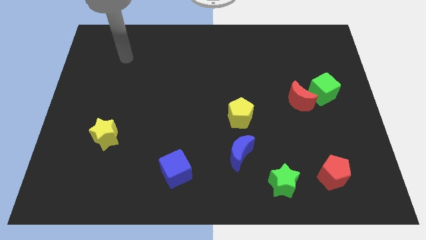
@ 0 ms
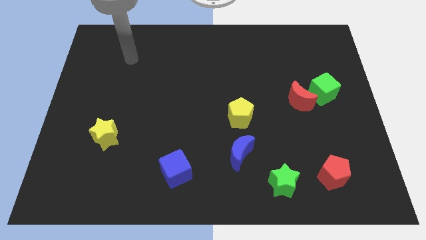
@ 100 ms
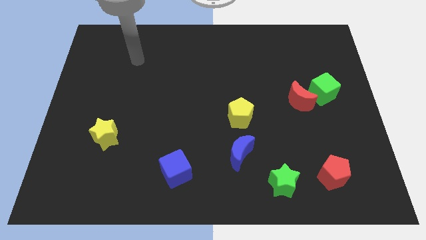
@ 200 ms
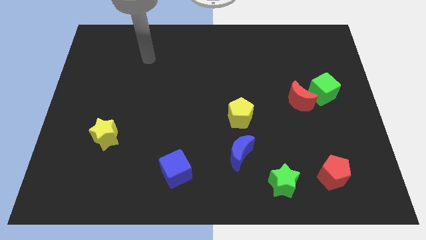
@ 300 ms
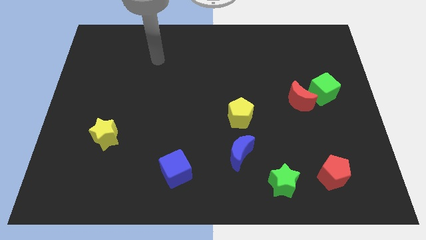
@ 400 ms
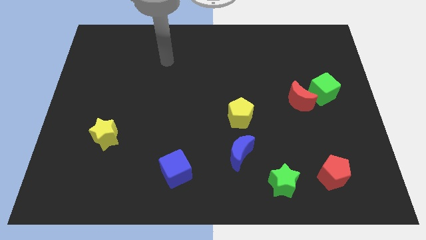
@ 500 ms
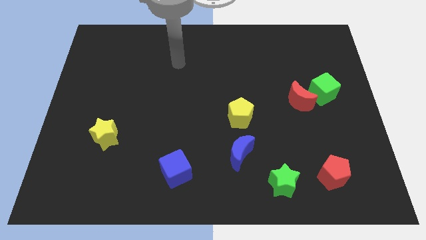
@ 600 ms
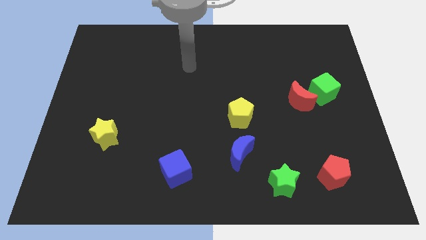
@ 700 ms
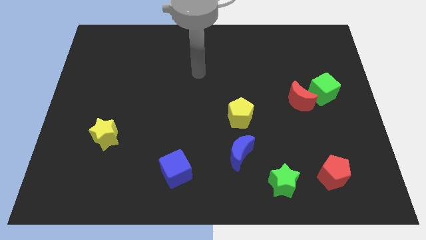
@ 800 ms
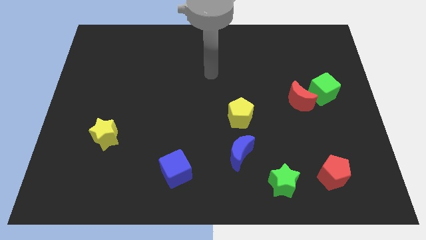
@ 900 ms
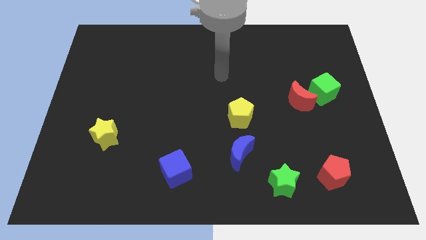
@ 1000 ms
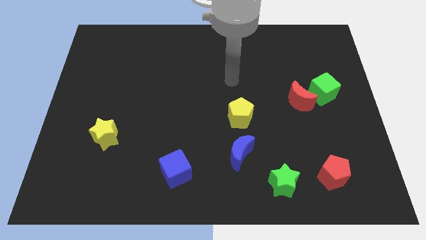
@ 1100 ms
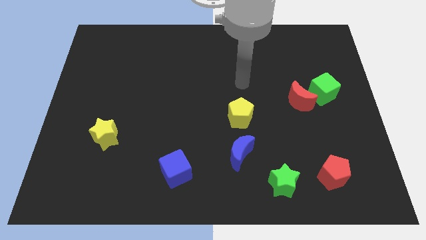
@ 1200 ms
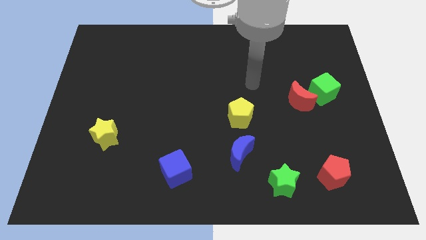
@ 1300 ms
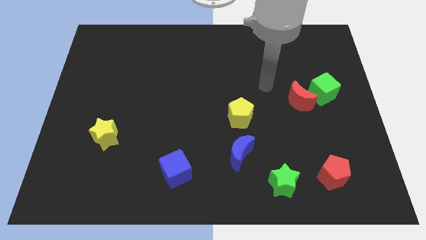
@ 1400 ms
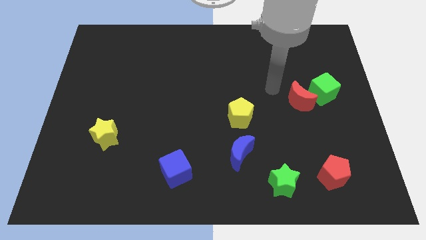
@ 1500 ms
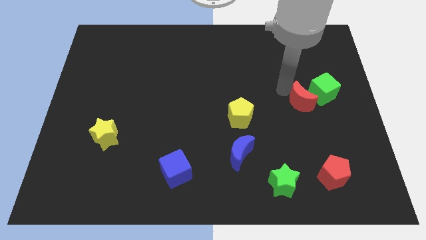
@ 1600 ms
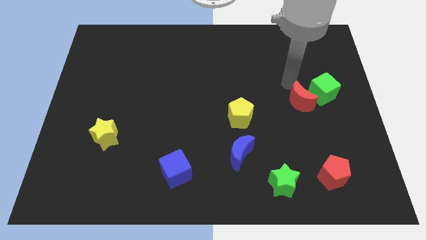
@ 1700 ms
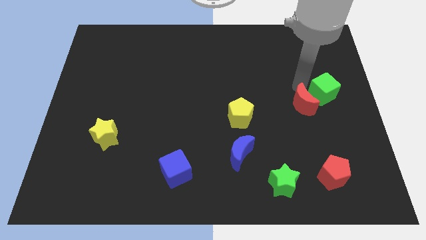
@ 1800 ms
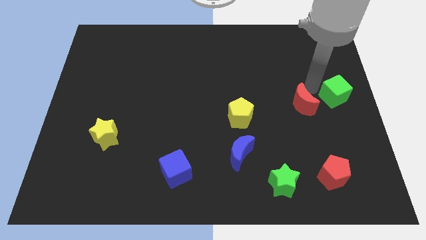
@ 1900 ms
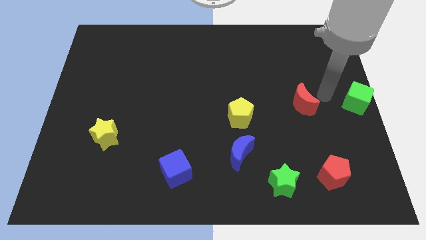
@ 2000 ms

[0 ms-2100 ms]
move the red moon away from the green cube

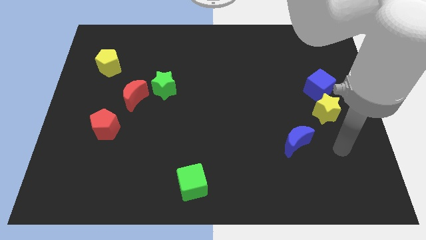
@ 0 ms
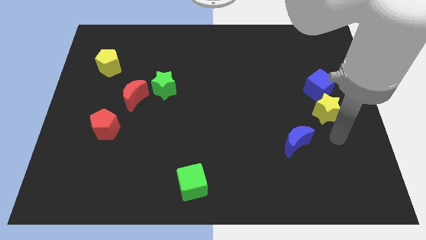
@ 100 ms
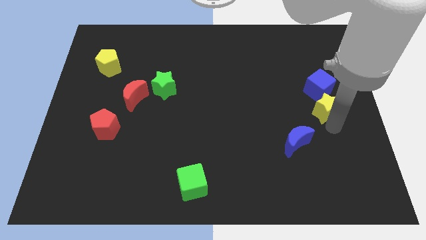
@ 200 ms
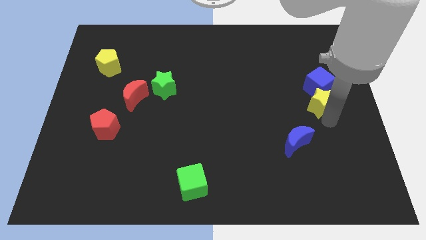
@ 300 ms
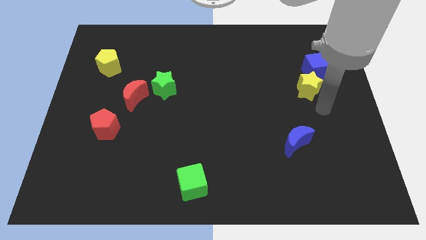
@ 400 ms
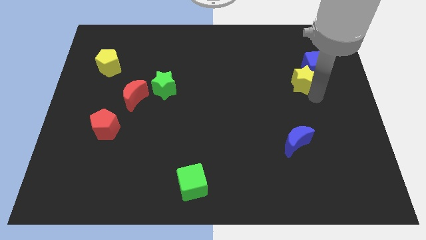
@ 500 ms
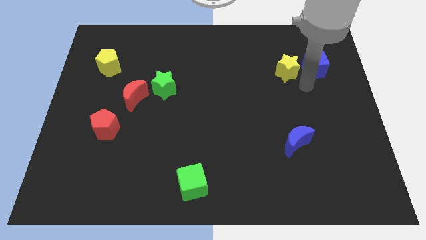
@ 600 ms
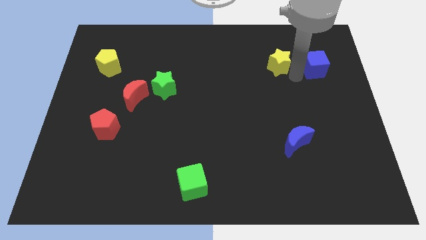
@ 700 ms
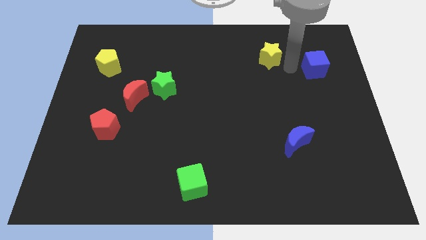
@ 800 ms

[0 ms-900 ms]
pull the blue cube apart from the yellow star

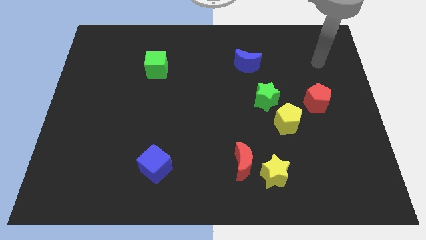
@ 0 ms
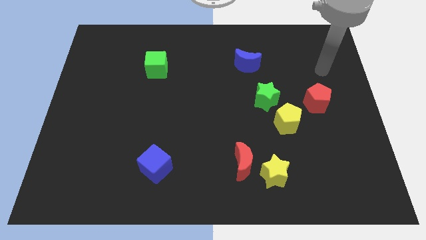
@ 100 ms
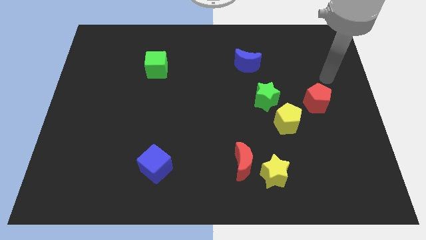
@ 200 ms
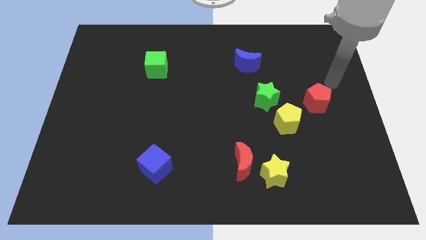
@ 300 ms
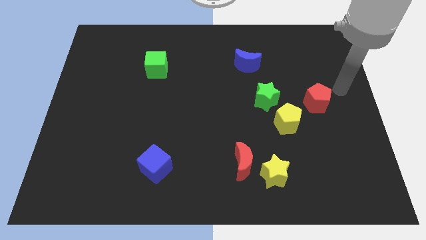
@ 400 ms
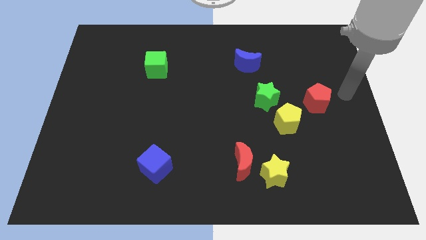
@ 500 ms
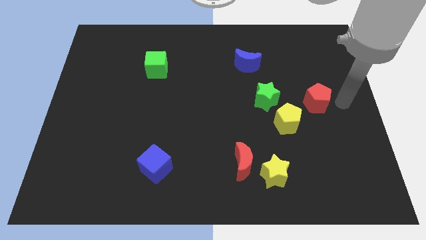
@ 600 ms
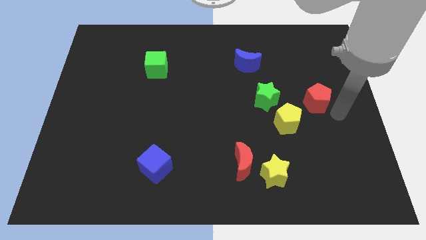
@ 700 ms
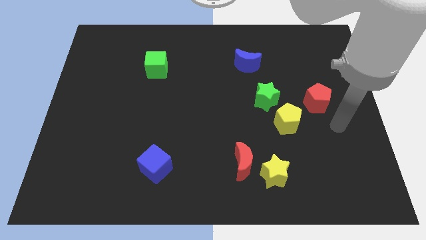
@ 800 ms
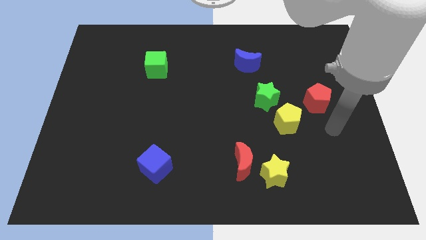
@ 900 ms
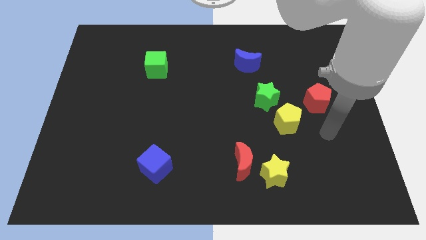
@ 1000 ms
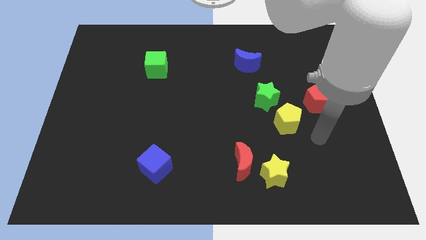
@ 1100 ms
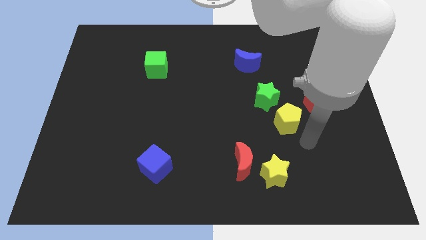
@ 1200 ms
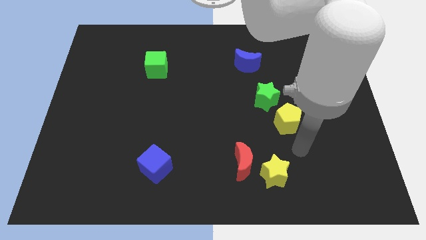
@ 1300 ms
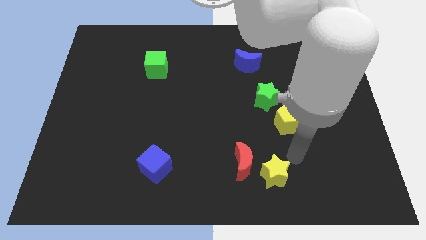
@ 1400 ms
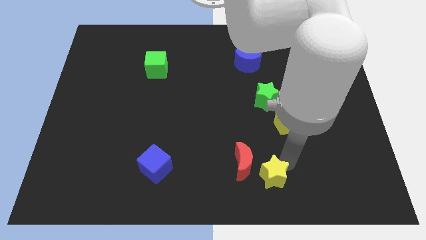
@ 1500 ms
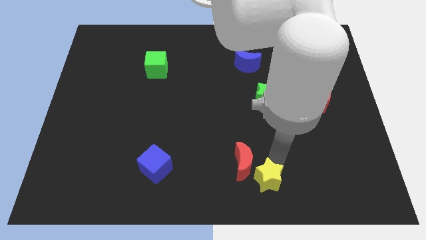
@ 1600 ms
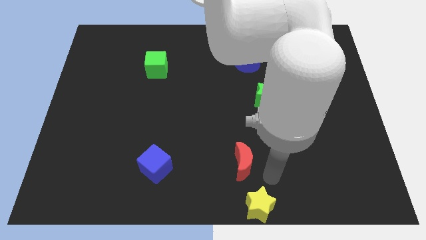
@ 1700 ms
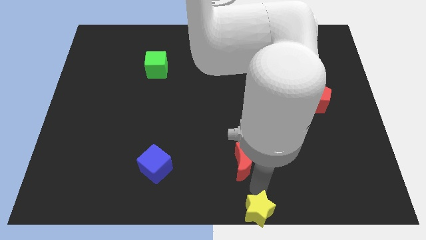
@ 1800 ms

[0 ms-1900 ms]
pull the red moon apart from the yellow star

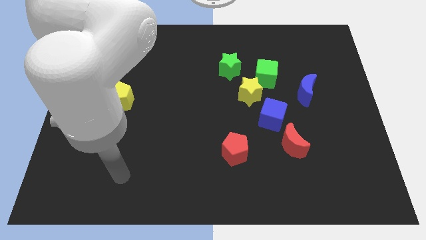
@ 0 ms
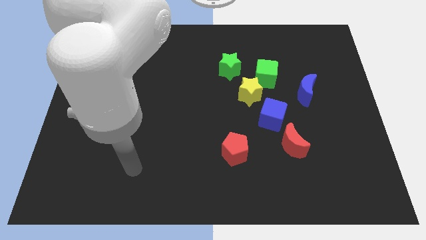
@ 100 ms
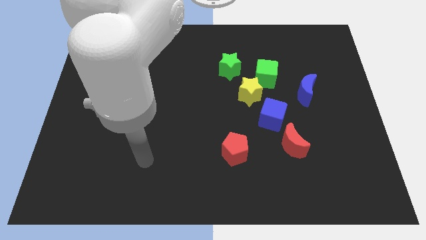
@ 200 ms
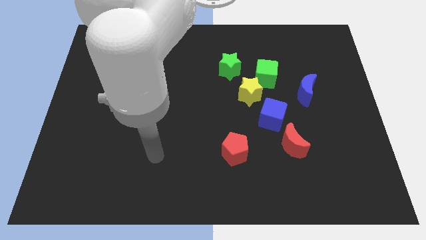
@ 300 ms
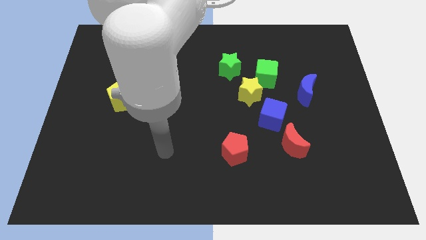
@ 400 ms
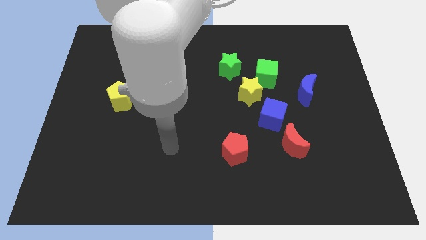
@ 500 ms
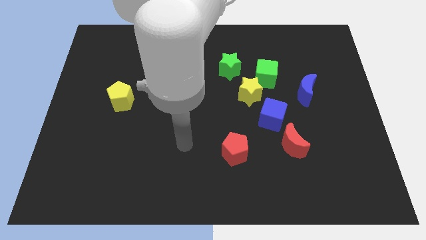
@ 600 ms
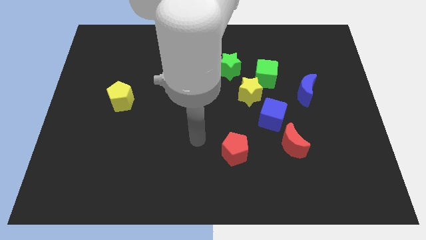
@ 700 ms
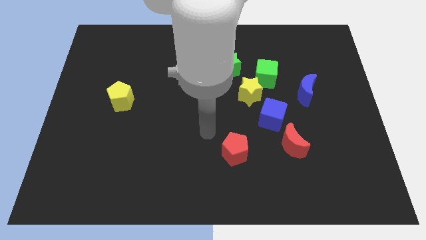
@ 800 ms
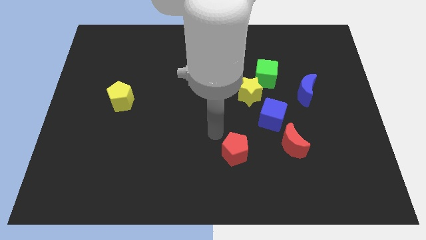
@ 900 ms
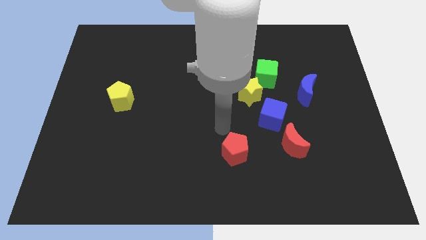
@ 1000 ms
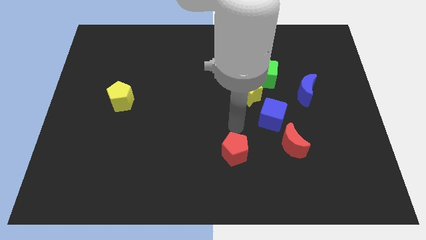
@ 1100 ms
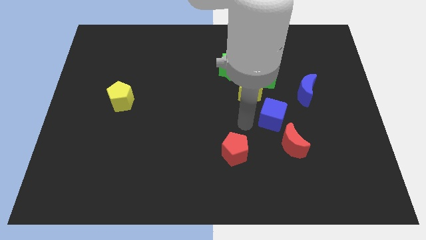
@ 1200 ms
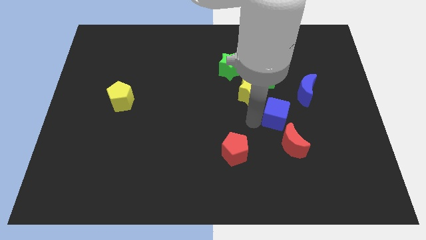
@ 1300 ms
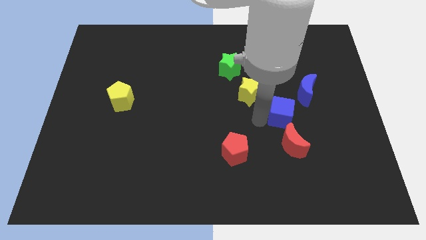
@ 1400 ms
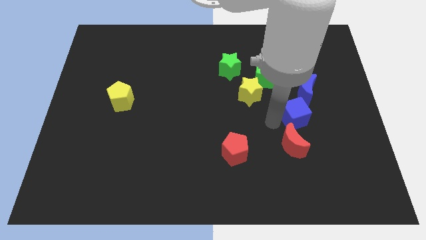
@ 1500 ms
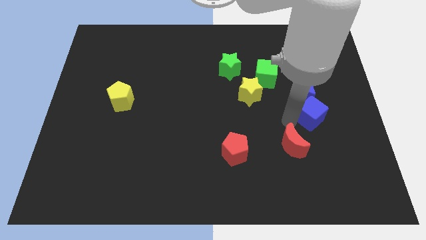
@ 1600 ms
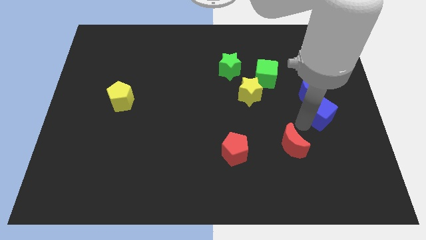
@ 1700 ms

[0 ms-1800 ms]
move the red moon away from the blue cube

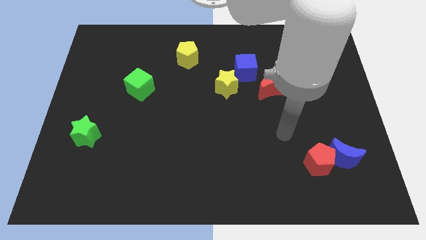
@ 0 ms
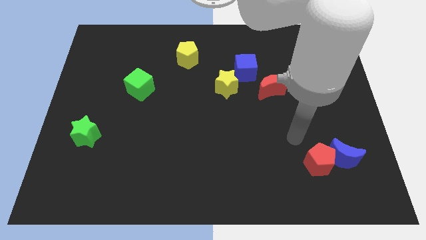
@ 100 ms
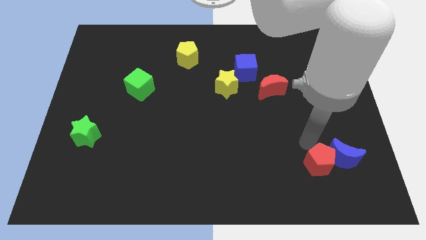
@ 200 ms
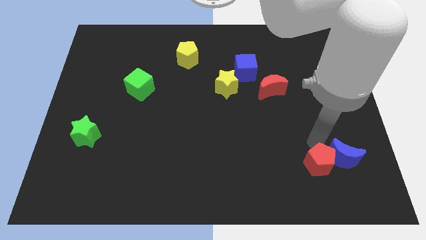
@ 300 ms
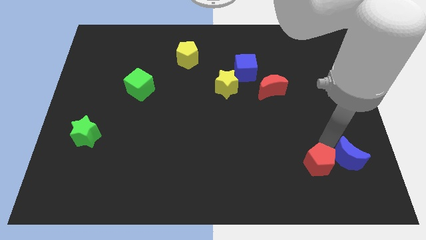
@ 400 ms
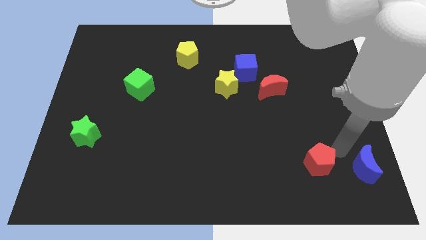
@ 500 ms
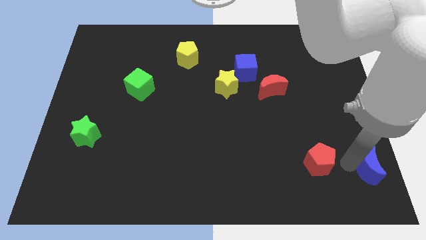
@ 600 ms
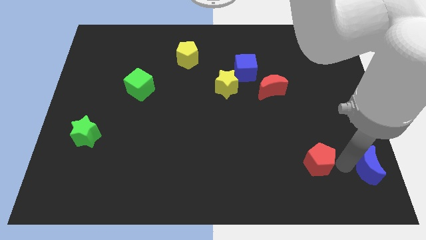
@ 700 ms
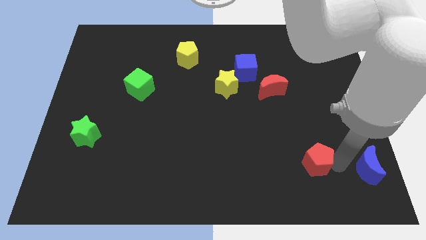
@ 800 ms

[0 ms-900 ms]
pull the red pentagon apart from the blue moon

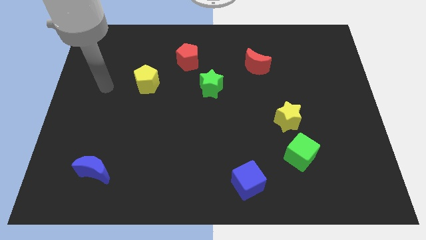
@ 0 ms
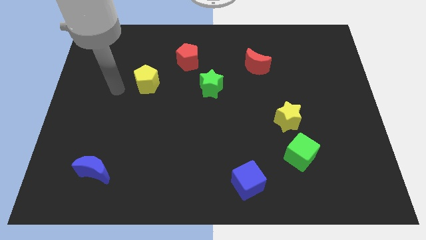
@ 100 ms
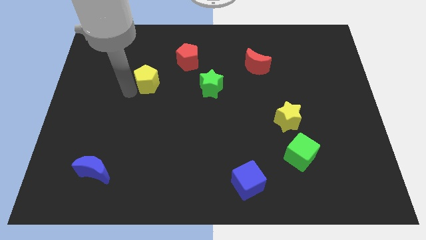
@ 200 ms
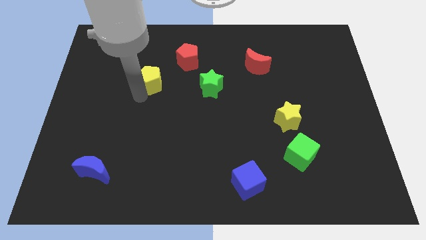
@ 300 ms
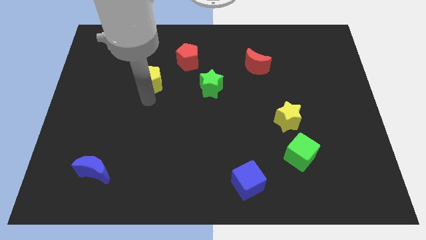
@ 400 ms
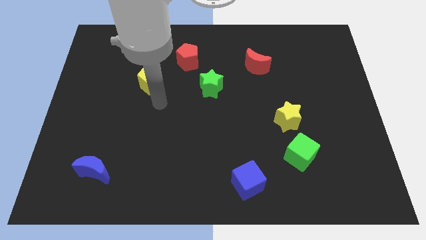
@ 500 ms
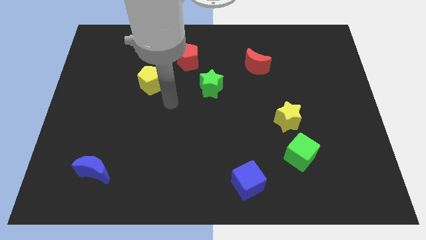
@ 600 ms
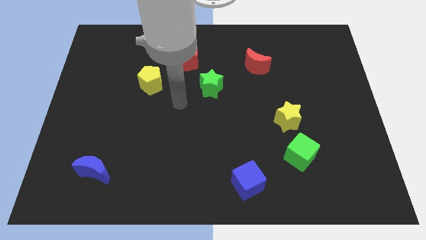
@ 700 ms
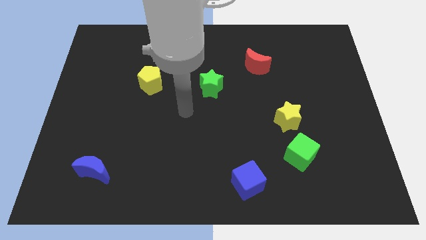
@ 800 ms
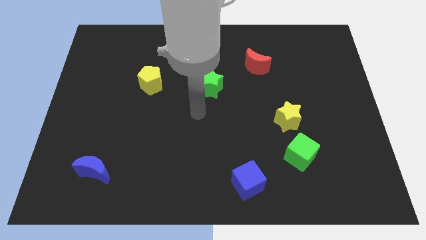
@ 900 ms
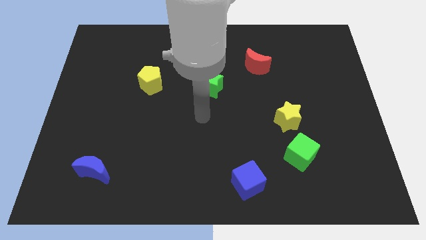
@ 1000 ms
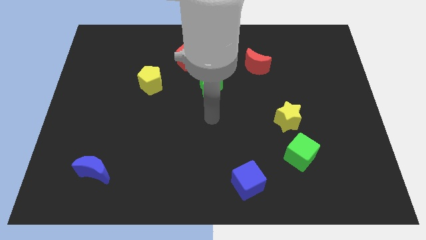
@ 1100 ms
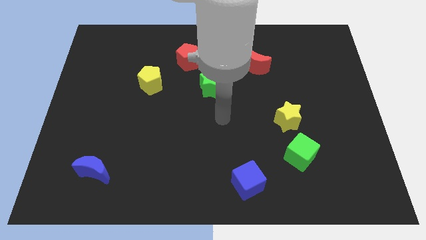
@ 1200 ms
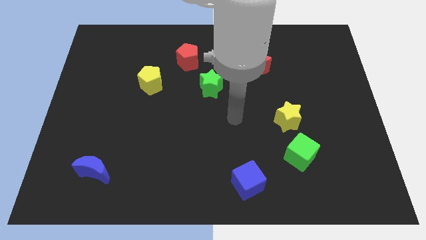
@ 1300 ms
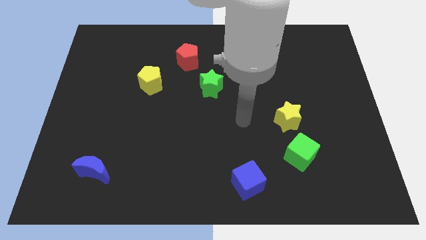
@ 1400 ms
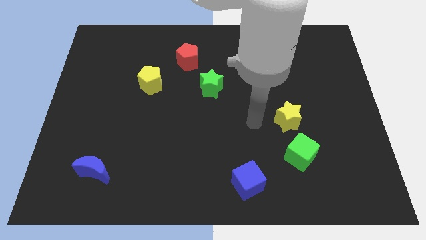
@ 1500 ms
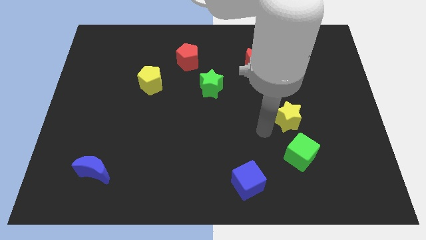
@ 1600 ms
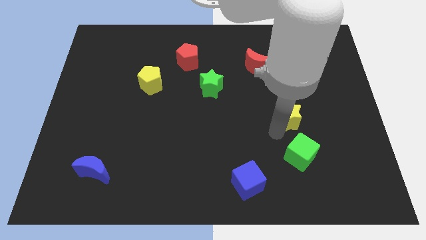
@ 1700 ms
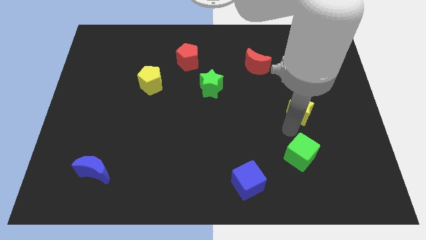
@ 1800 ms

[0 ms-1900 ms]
pull the green cube apart from the yellow star
